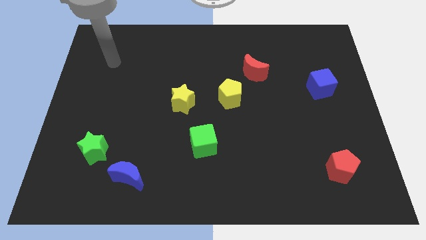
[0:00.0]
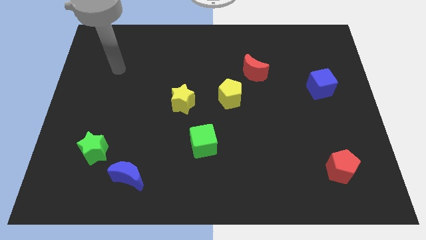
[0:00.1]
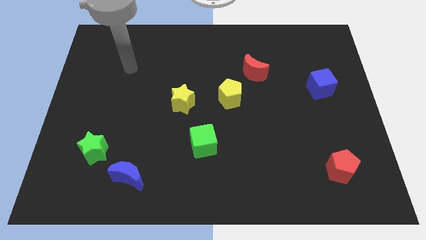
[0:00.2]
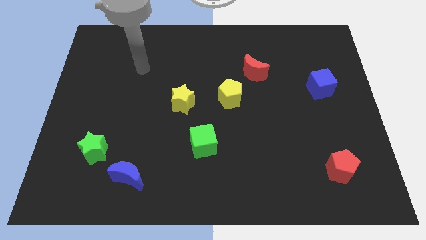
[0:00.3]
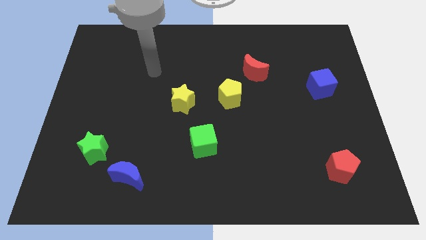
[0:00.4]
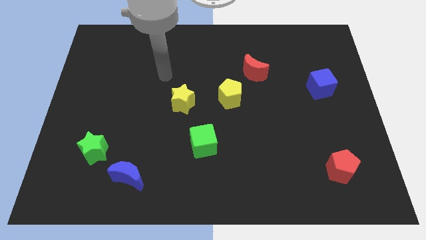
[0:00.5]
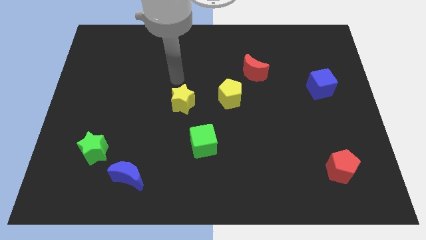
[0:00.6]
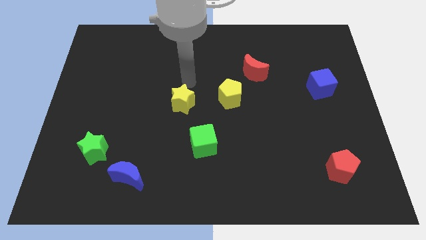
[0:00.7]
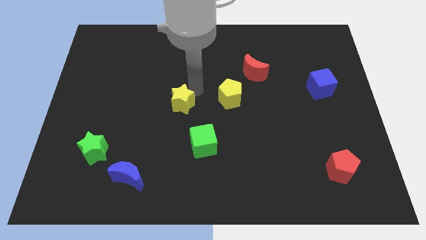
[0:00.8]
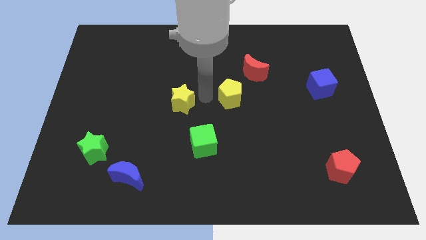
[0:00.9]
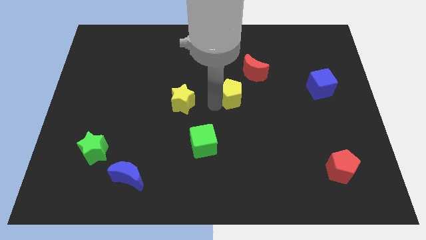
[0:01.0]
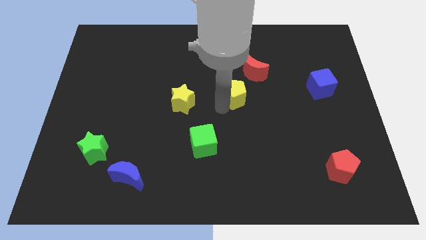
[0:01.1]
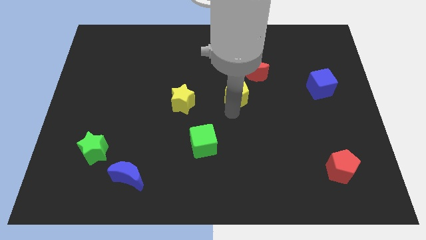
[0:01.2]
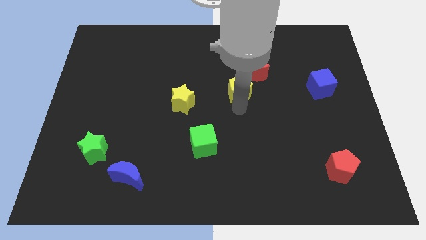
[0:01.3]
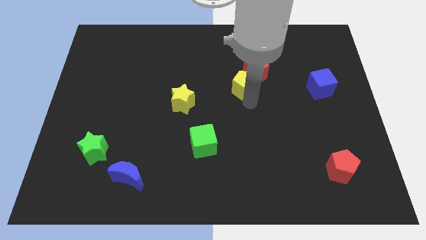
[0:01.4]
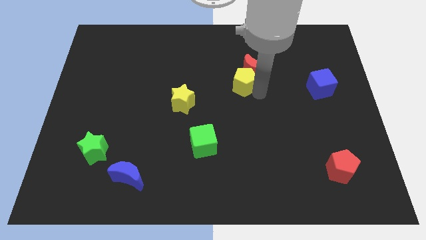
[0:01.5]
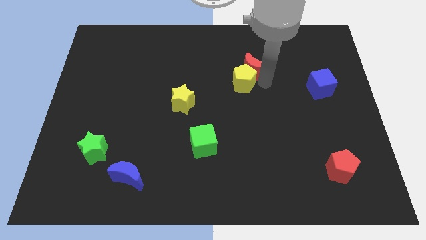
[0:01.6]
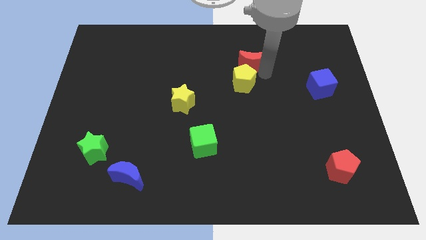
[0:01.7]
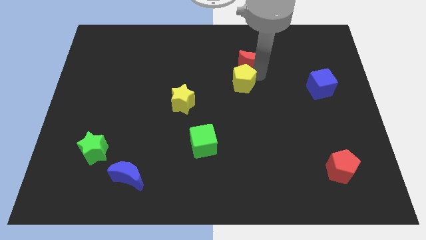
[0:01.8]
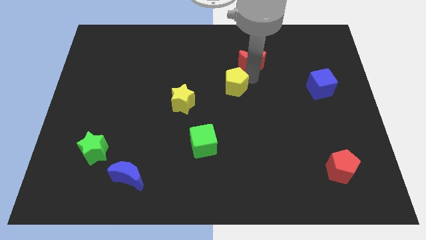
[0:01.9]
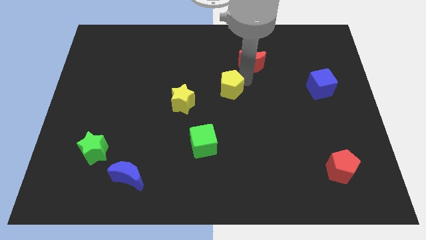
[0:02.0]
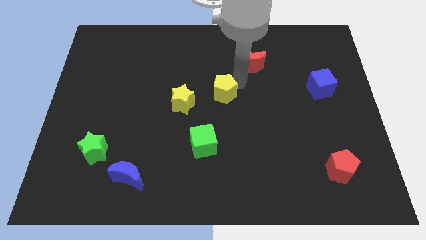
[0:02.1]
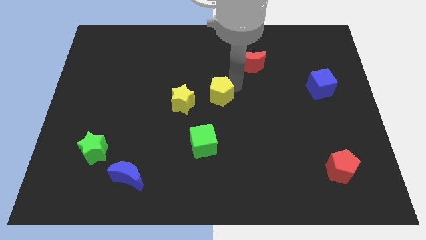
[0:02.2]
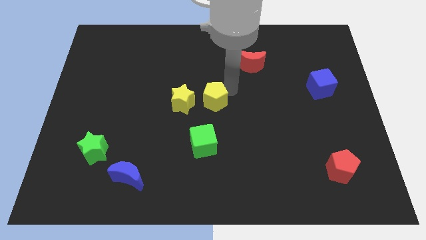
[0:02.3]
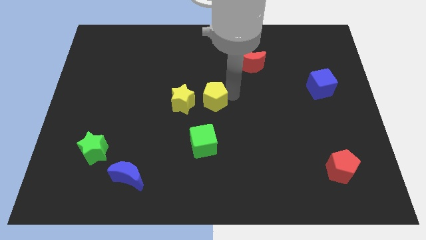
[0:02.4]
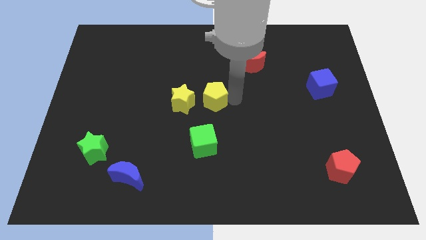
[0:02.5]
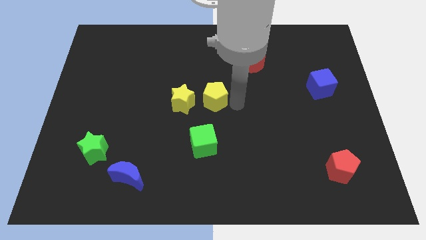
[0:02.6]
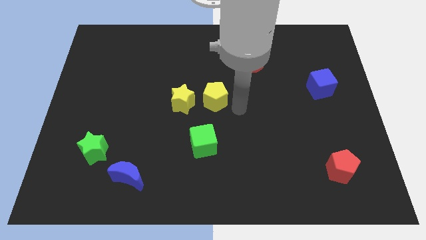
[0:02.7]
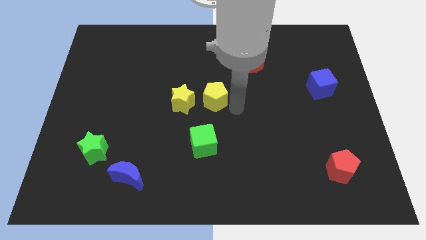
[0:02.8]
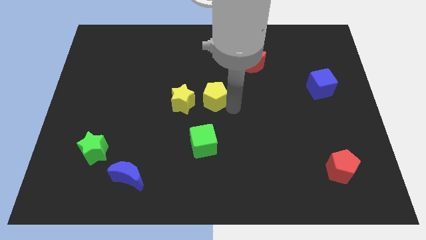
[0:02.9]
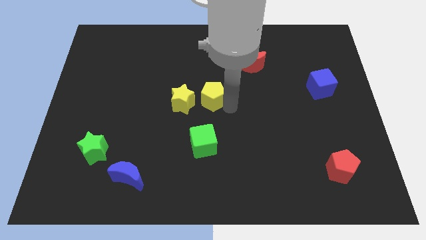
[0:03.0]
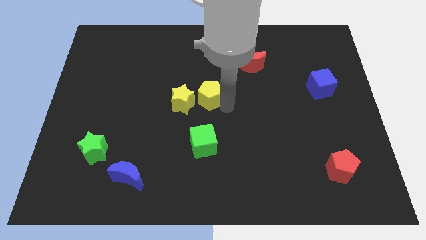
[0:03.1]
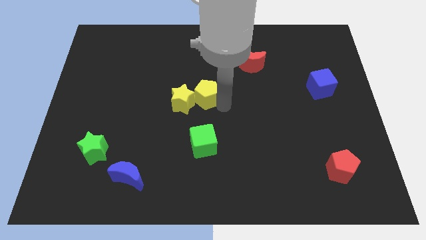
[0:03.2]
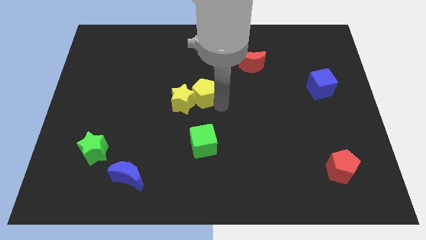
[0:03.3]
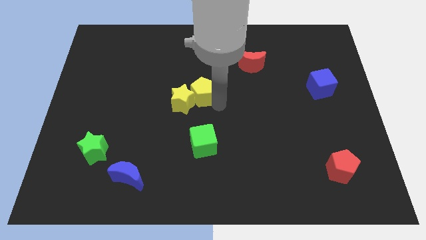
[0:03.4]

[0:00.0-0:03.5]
push the yellow pentagon left a little

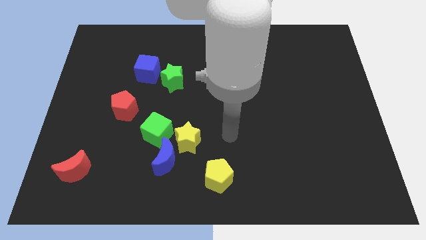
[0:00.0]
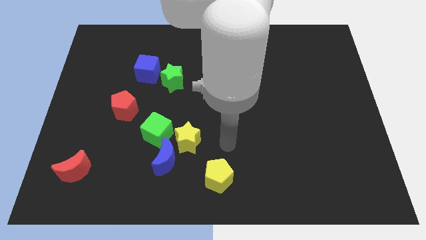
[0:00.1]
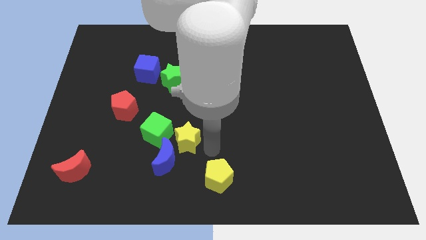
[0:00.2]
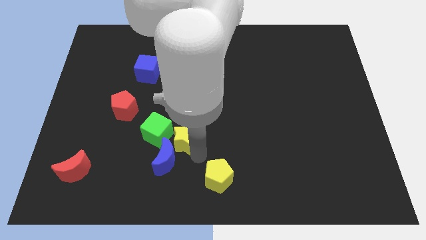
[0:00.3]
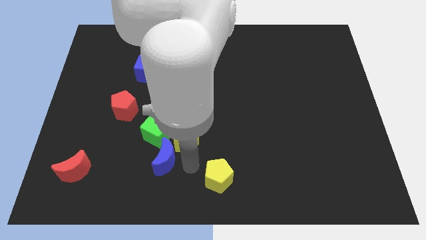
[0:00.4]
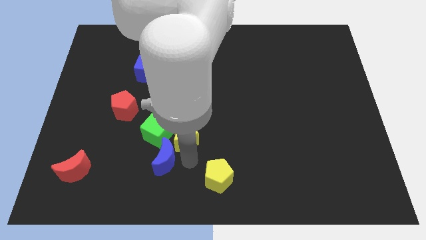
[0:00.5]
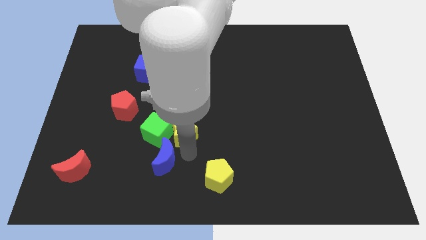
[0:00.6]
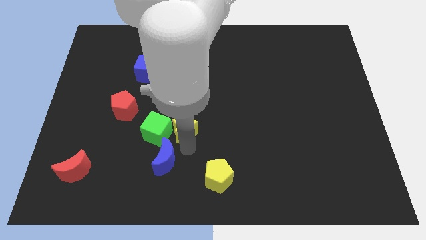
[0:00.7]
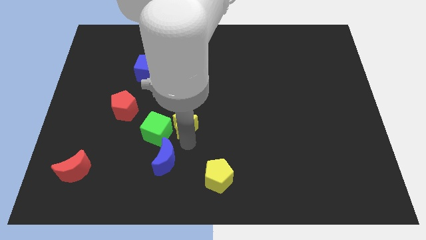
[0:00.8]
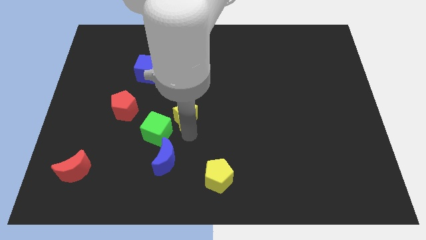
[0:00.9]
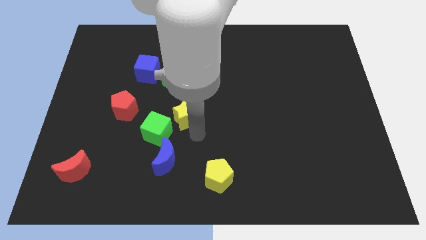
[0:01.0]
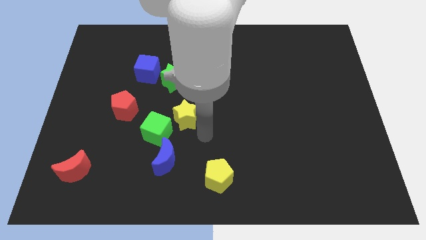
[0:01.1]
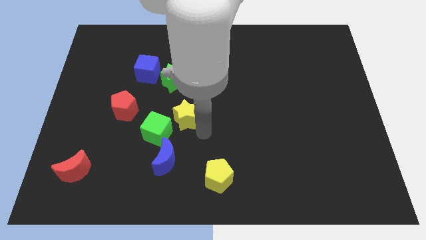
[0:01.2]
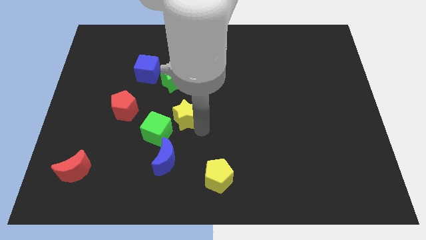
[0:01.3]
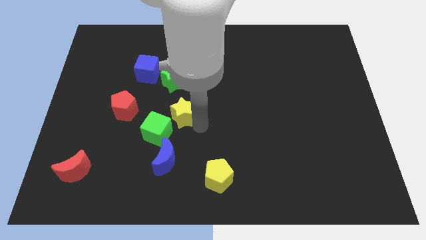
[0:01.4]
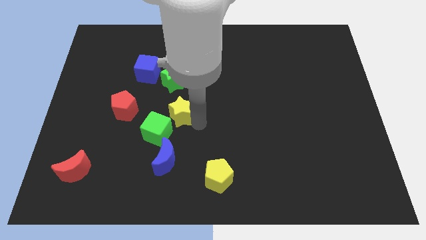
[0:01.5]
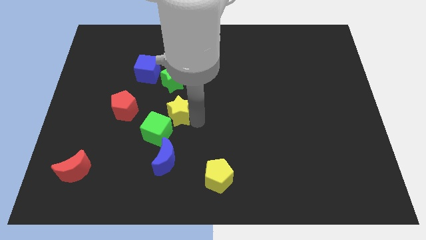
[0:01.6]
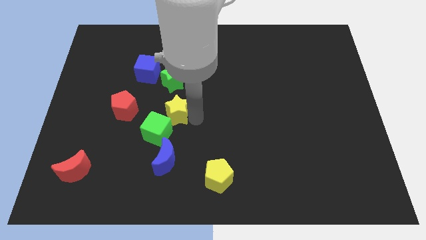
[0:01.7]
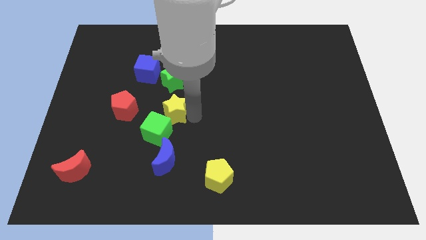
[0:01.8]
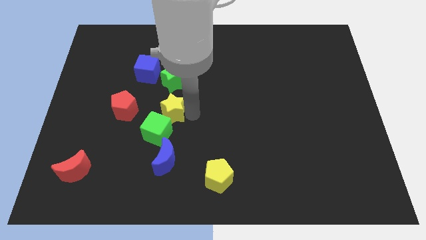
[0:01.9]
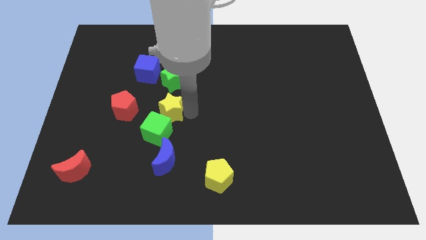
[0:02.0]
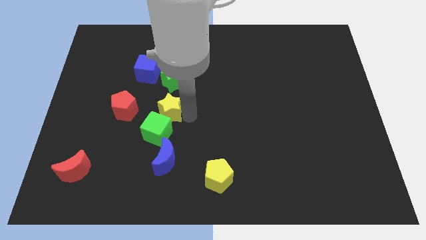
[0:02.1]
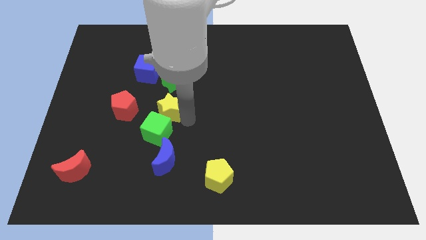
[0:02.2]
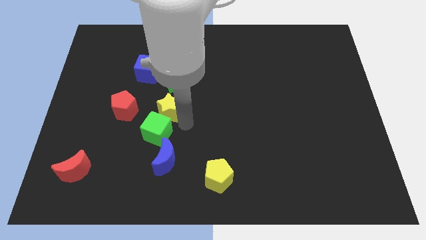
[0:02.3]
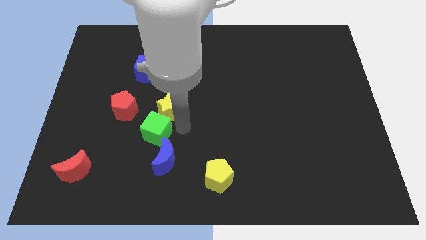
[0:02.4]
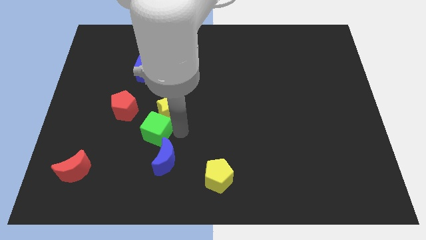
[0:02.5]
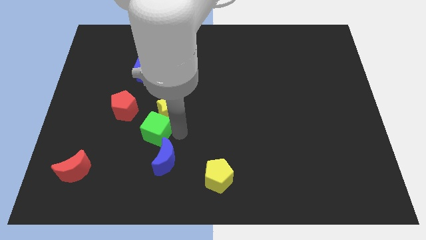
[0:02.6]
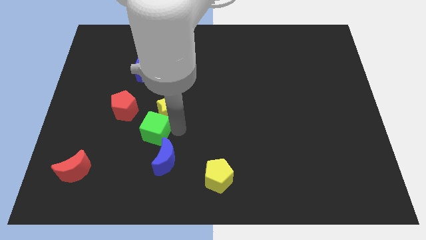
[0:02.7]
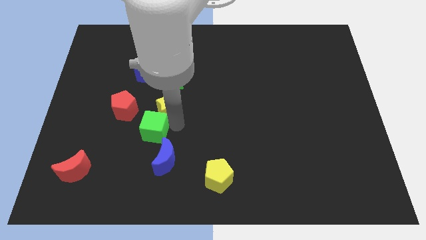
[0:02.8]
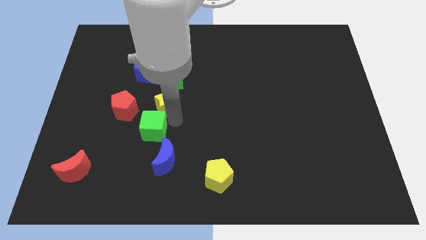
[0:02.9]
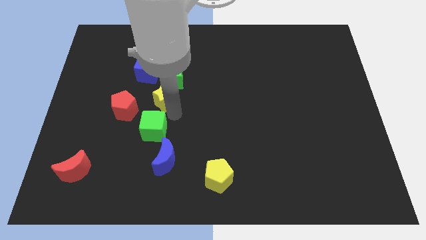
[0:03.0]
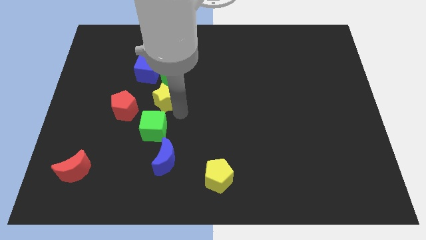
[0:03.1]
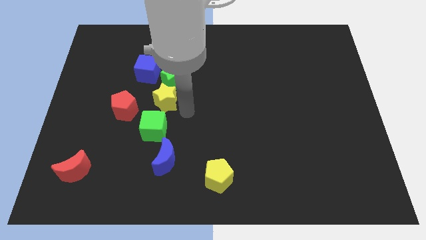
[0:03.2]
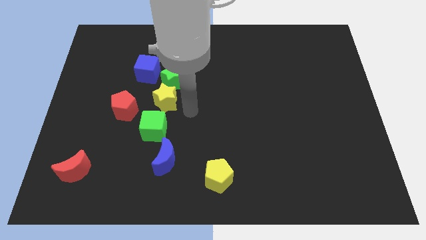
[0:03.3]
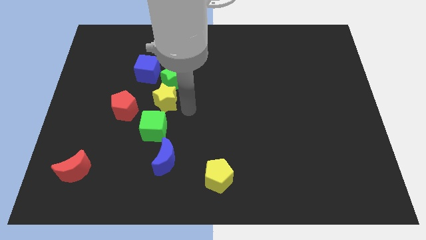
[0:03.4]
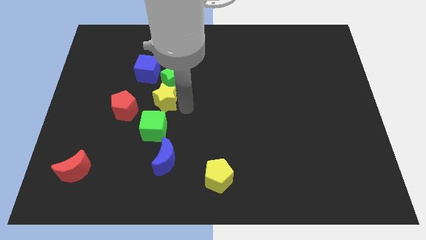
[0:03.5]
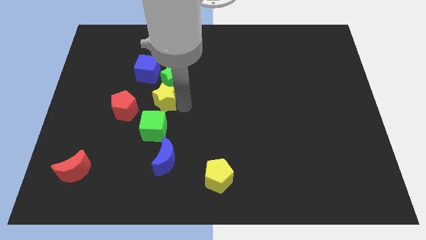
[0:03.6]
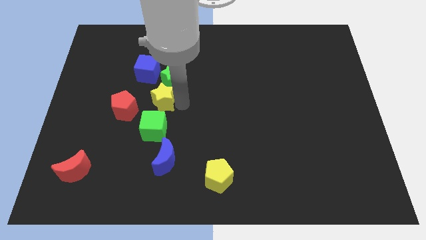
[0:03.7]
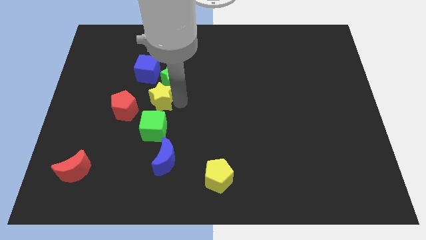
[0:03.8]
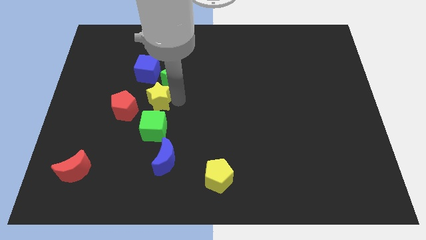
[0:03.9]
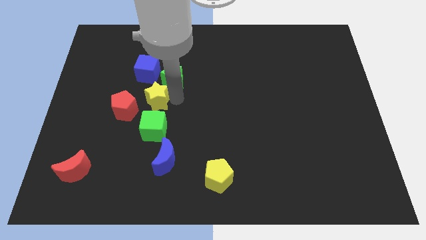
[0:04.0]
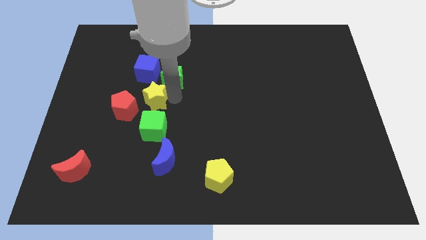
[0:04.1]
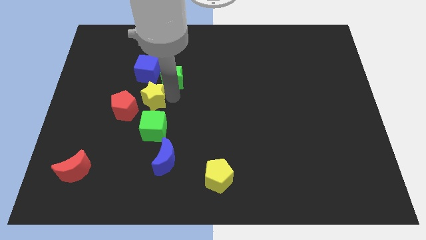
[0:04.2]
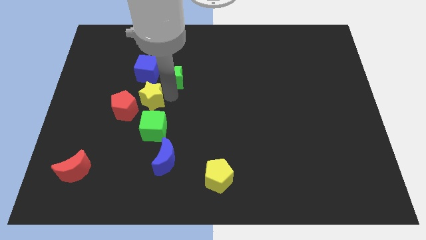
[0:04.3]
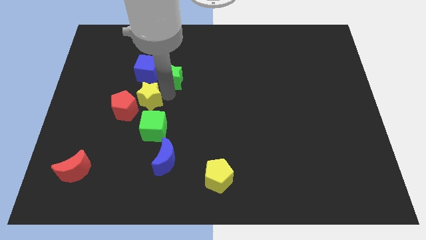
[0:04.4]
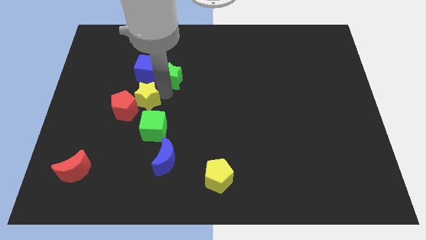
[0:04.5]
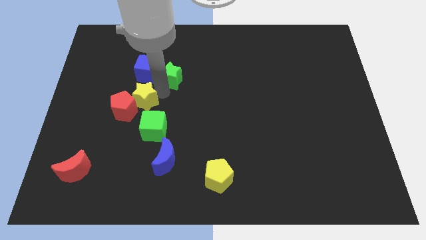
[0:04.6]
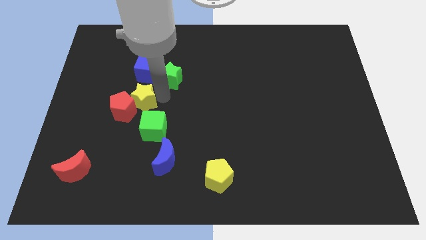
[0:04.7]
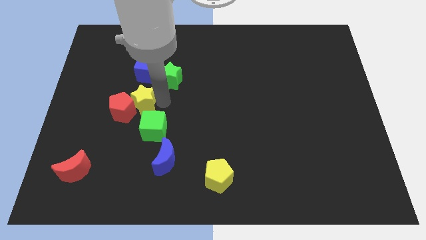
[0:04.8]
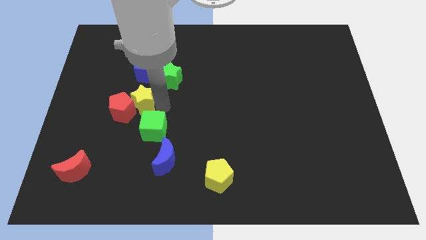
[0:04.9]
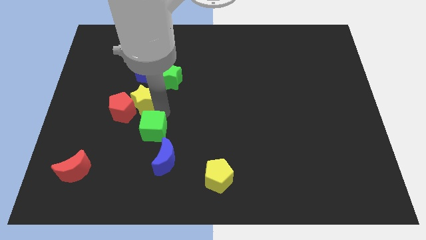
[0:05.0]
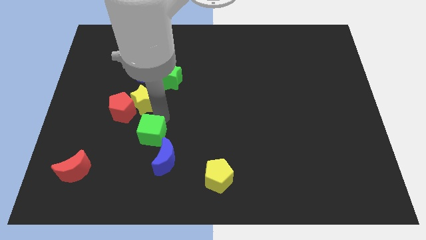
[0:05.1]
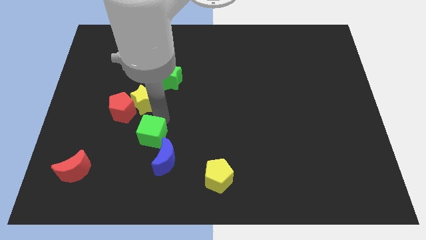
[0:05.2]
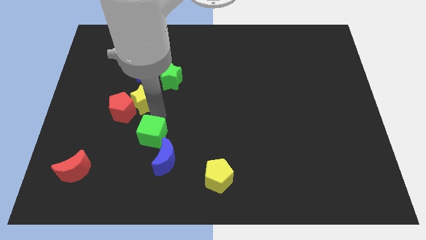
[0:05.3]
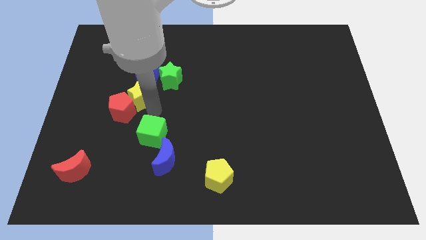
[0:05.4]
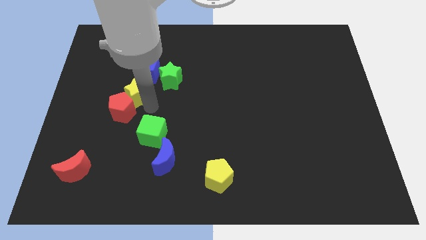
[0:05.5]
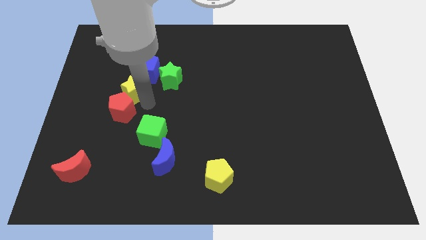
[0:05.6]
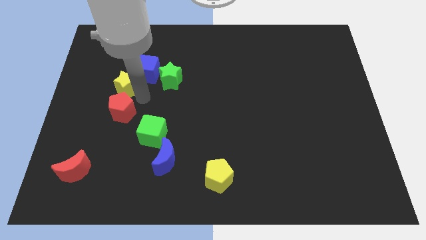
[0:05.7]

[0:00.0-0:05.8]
slide the yellow star up and to the left diagonally
